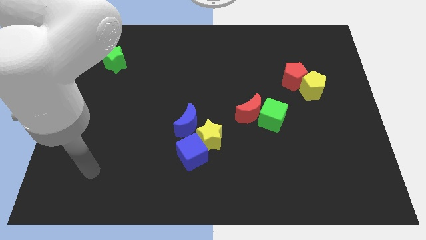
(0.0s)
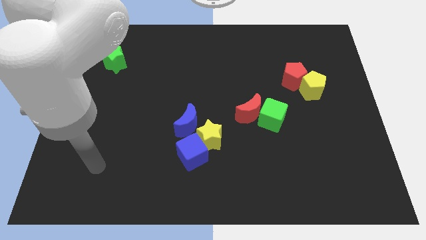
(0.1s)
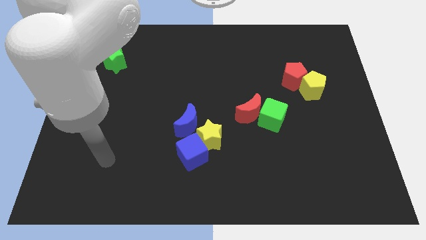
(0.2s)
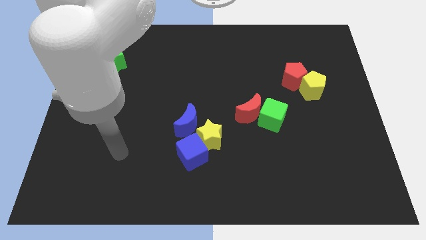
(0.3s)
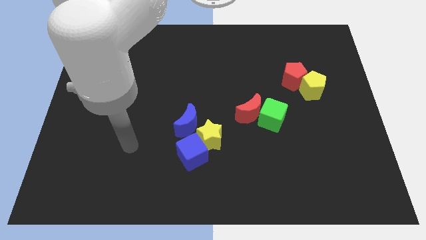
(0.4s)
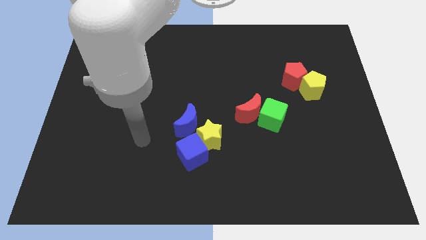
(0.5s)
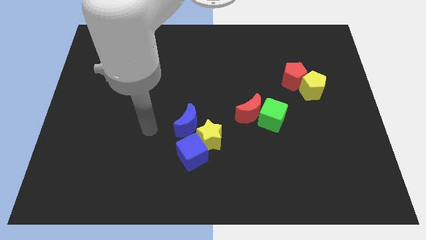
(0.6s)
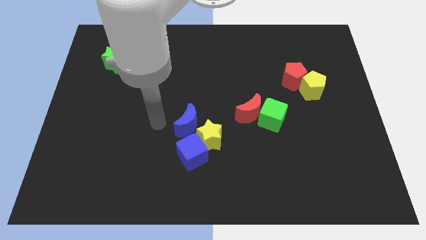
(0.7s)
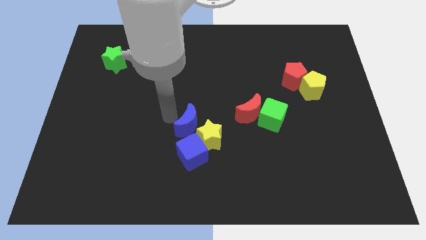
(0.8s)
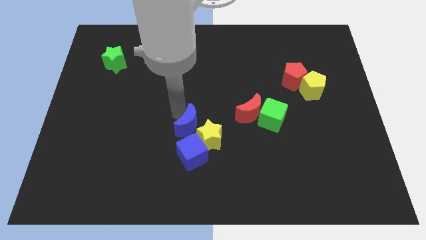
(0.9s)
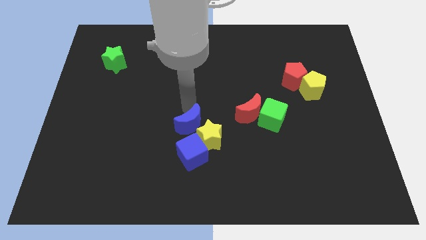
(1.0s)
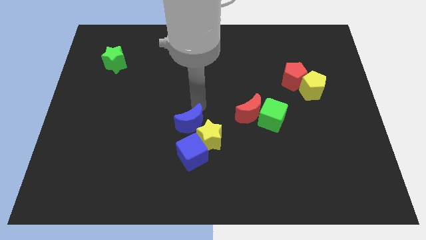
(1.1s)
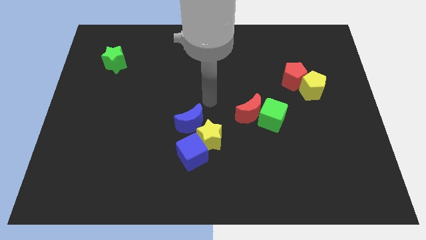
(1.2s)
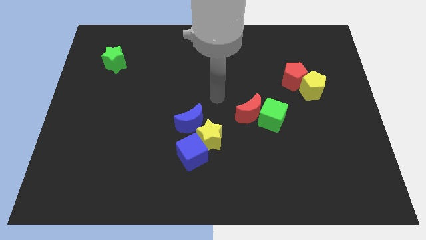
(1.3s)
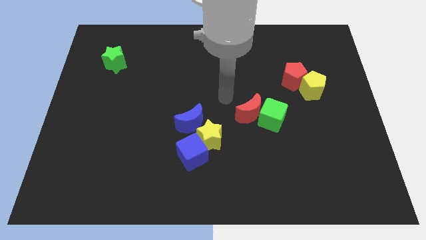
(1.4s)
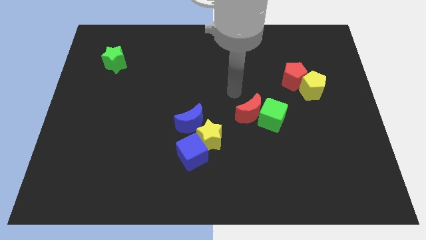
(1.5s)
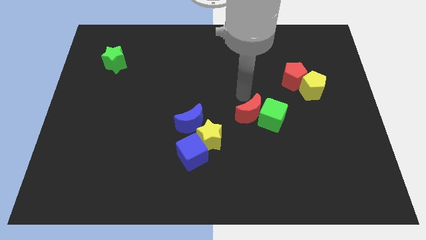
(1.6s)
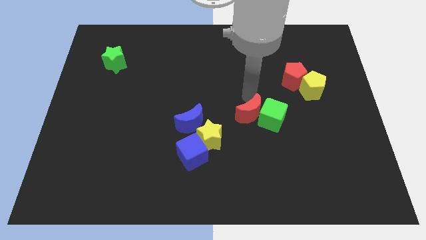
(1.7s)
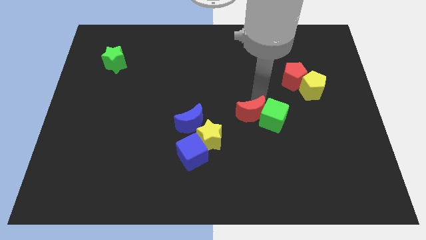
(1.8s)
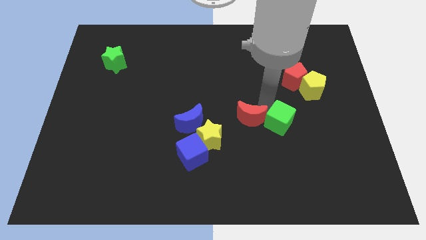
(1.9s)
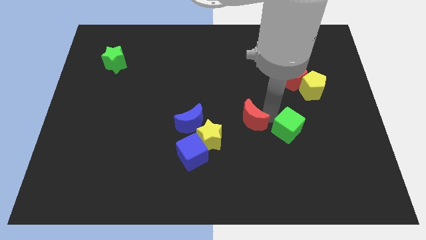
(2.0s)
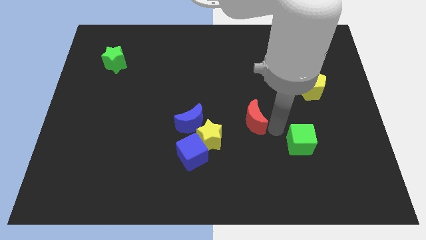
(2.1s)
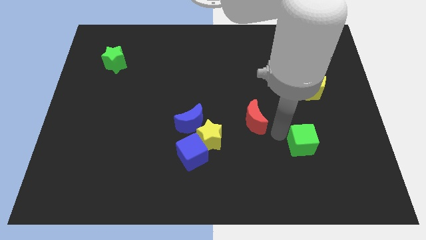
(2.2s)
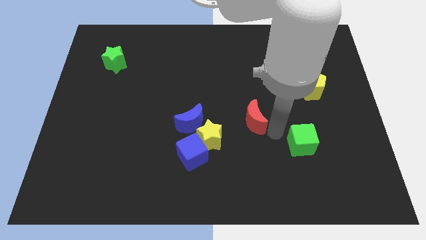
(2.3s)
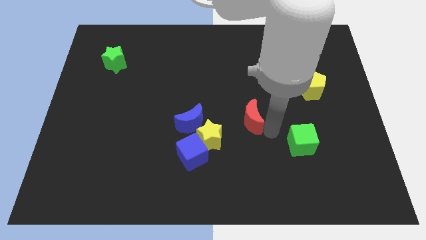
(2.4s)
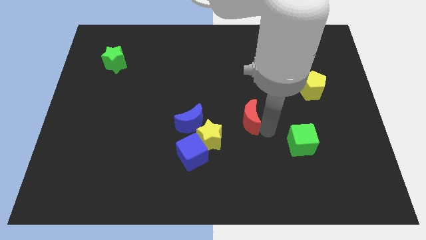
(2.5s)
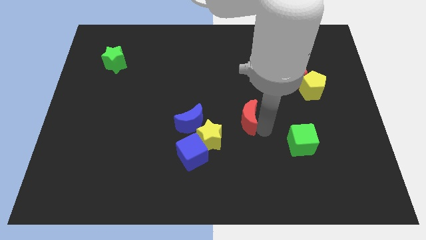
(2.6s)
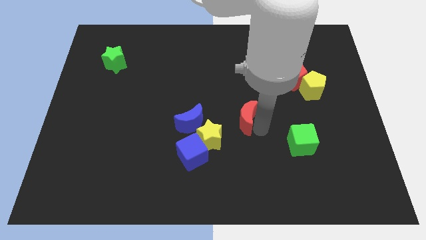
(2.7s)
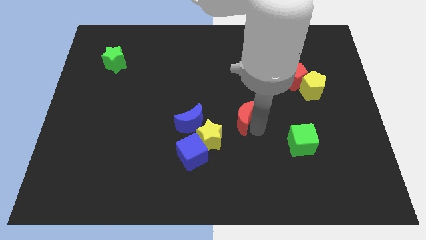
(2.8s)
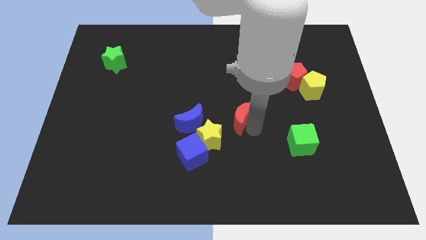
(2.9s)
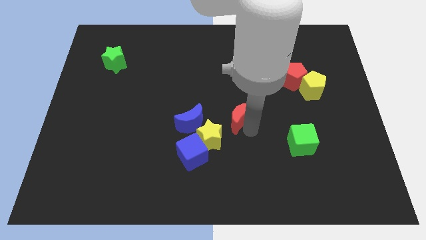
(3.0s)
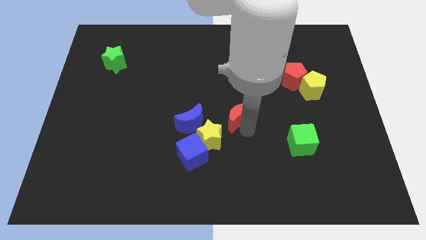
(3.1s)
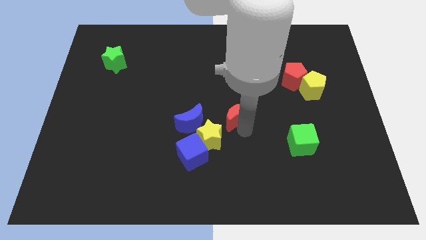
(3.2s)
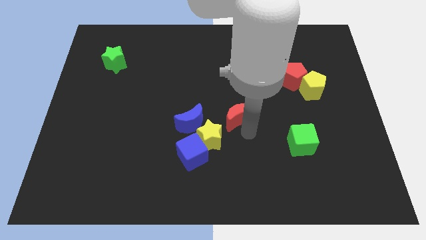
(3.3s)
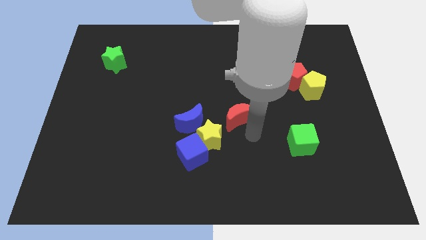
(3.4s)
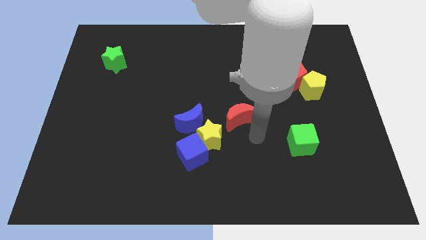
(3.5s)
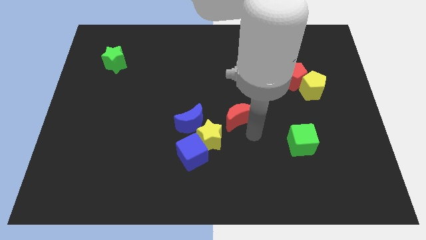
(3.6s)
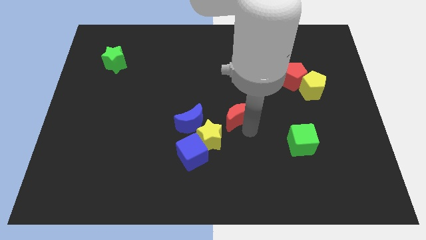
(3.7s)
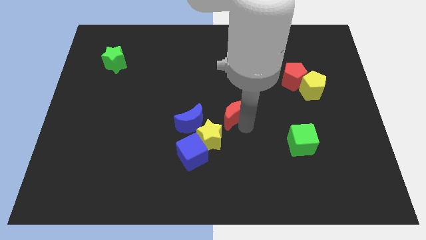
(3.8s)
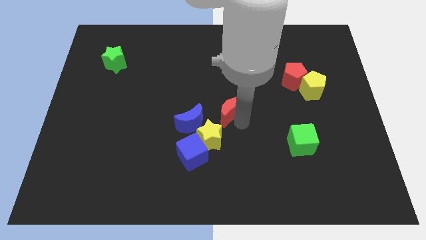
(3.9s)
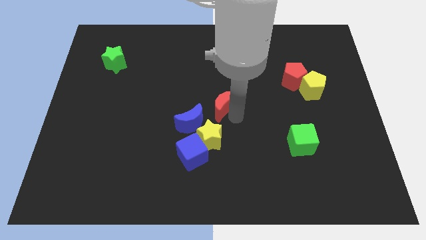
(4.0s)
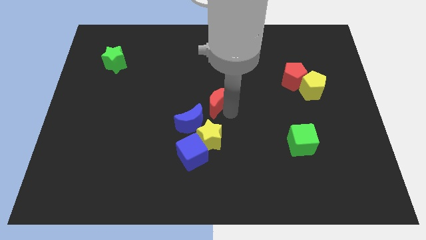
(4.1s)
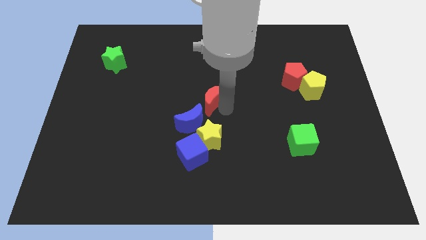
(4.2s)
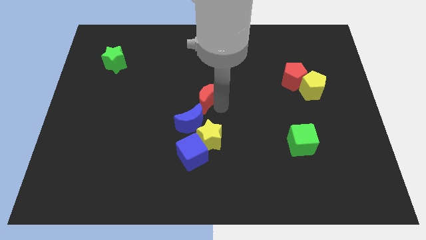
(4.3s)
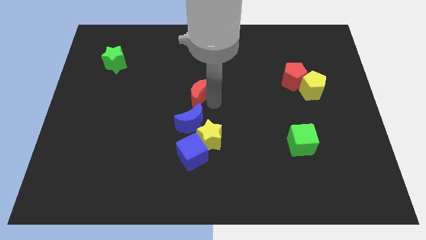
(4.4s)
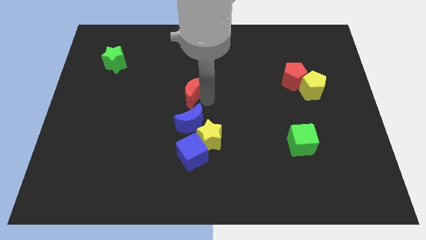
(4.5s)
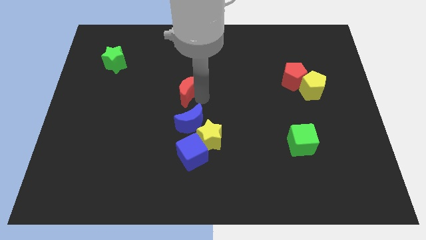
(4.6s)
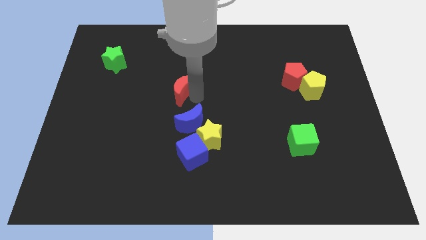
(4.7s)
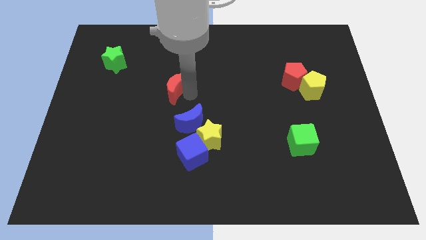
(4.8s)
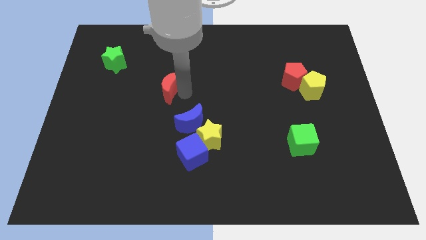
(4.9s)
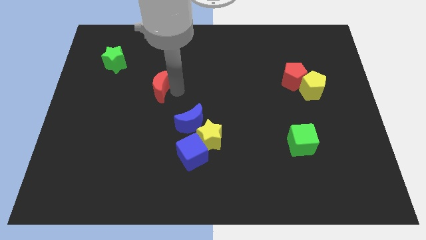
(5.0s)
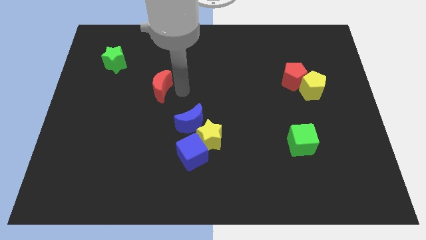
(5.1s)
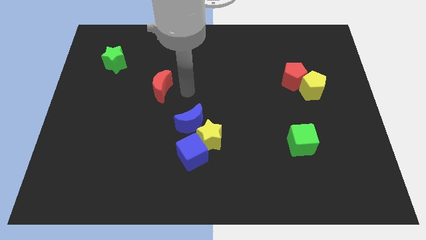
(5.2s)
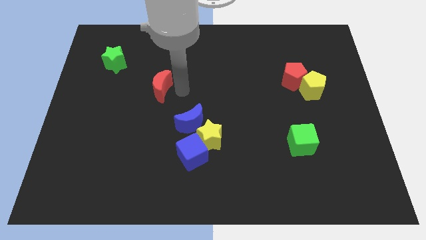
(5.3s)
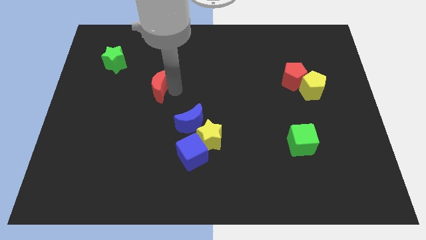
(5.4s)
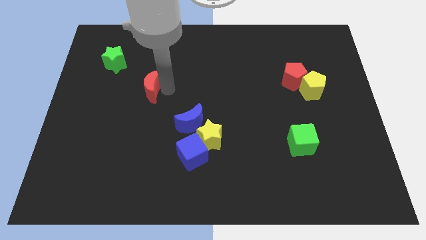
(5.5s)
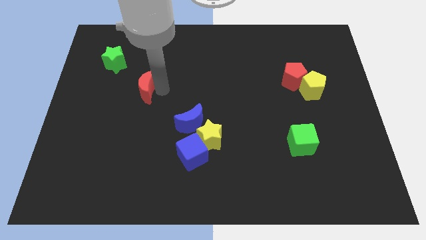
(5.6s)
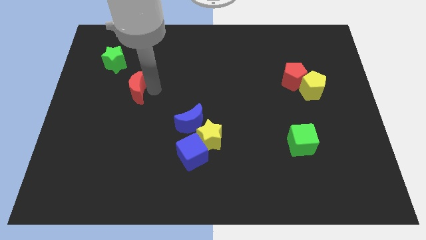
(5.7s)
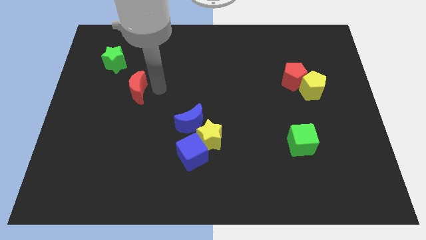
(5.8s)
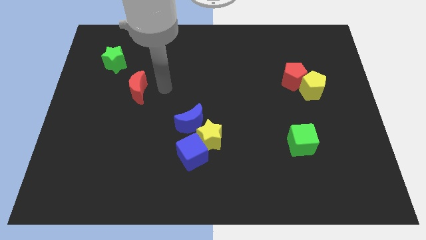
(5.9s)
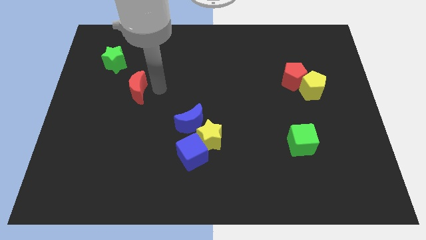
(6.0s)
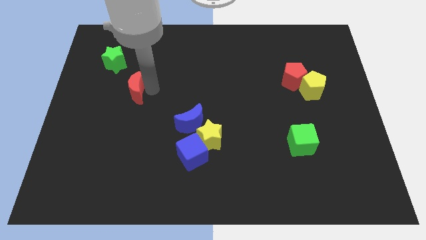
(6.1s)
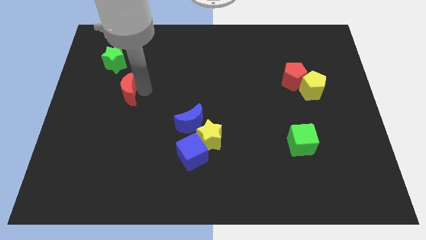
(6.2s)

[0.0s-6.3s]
slide the red moon to the bottom of the green star

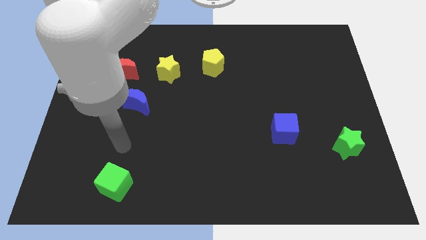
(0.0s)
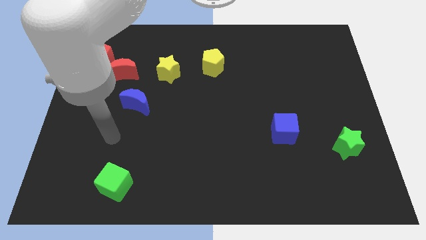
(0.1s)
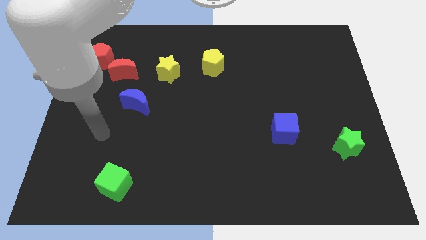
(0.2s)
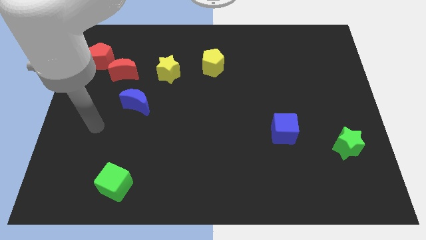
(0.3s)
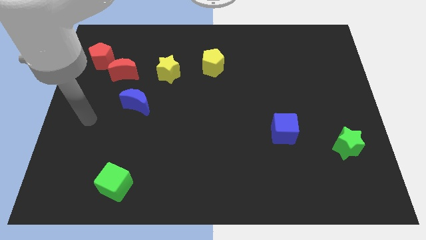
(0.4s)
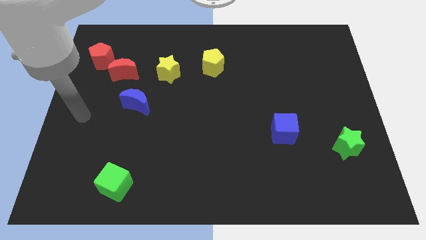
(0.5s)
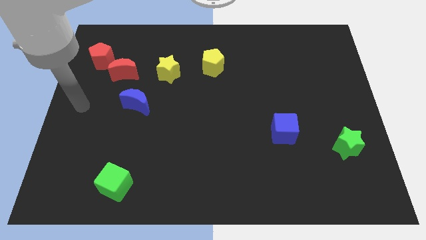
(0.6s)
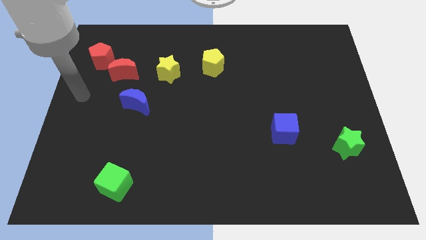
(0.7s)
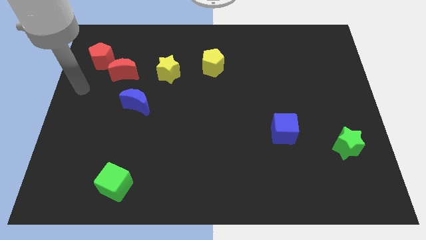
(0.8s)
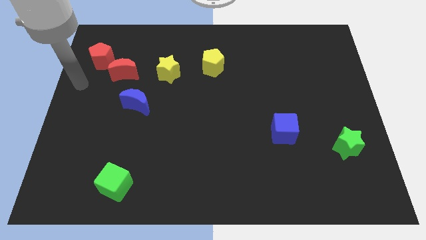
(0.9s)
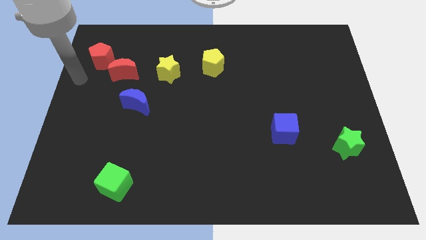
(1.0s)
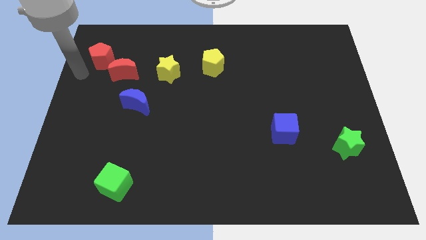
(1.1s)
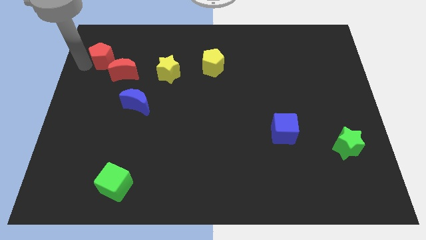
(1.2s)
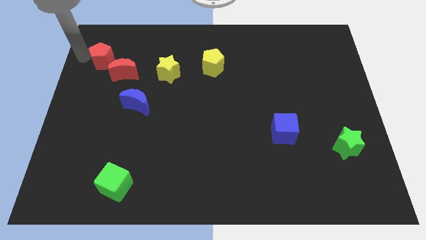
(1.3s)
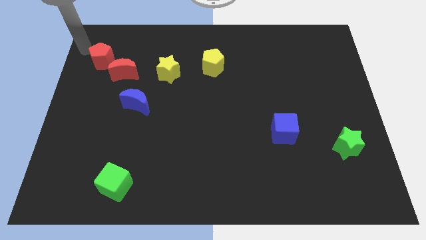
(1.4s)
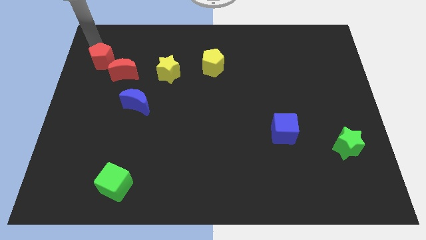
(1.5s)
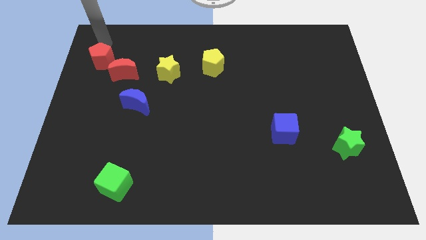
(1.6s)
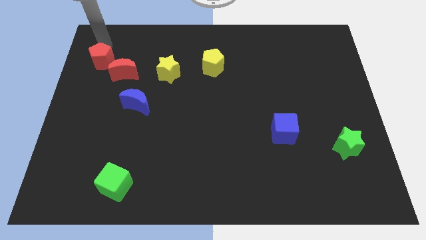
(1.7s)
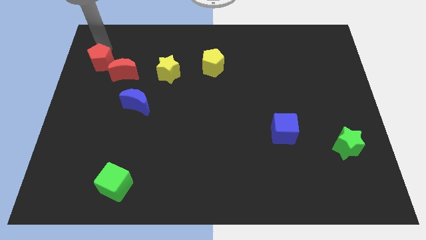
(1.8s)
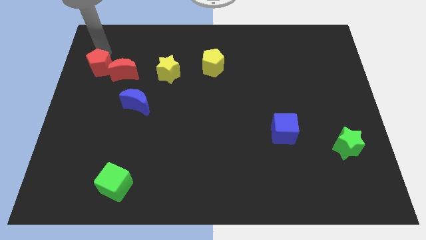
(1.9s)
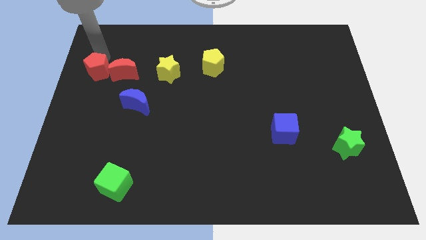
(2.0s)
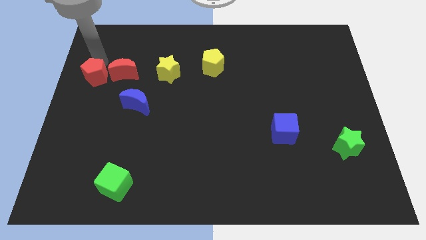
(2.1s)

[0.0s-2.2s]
put the red pentagon to the bottom left side of the red moon
